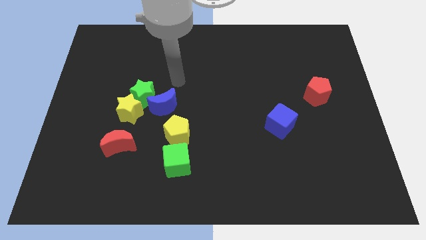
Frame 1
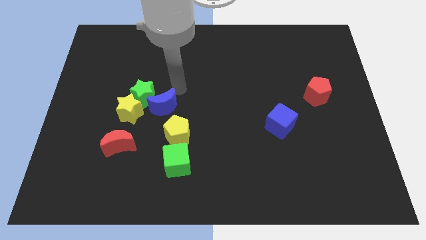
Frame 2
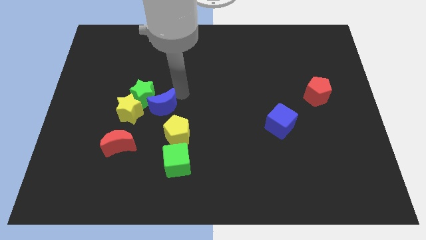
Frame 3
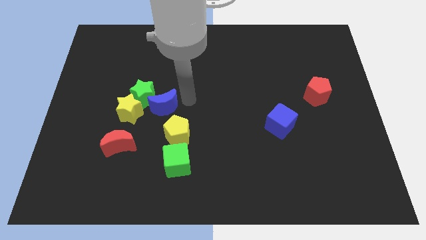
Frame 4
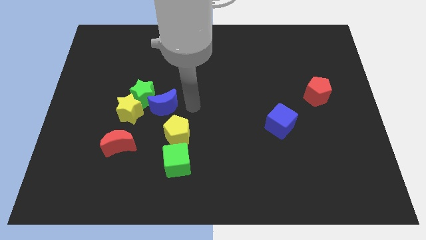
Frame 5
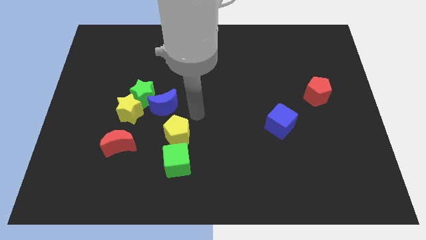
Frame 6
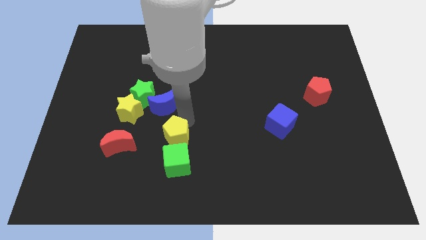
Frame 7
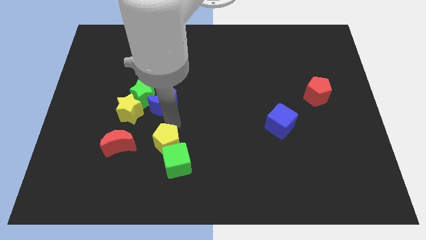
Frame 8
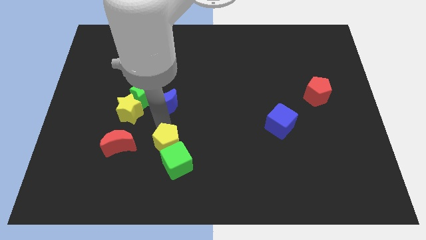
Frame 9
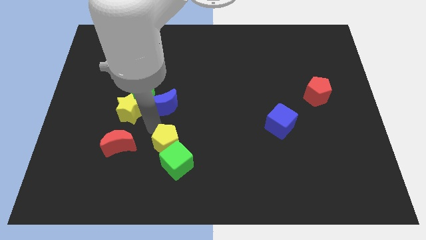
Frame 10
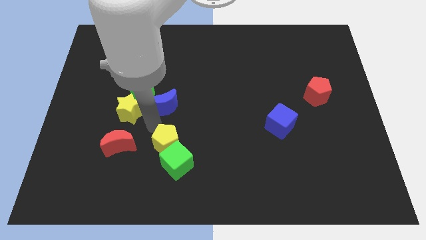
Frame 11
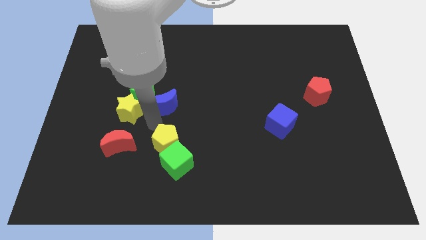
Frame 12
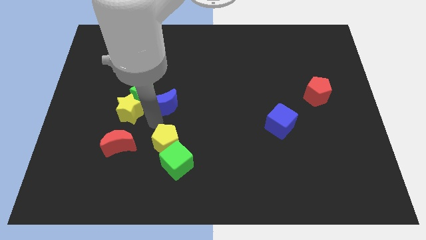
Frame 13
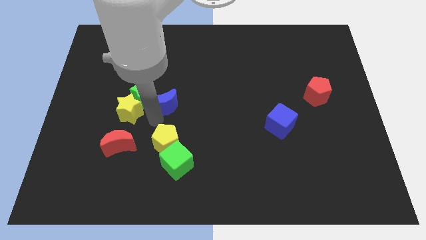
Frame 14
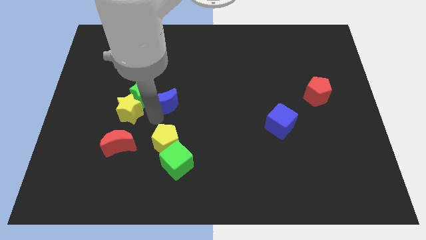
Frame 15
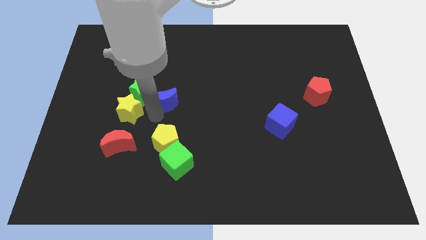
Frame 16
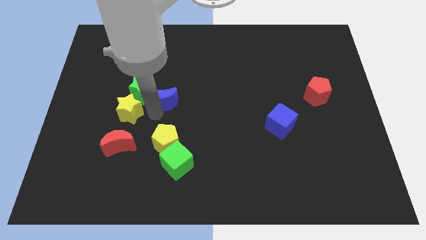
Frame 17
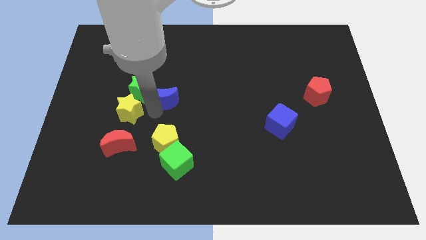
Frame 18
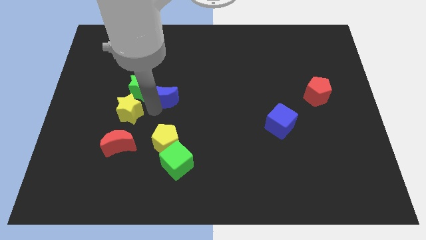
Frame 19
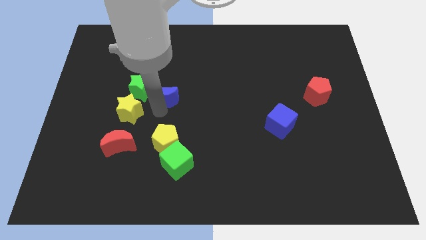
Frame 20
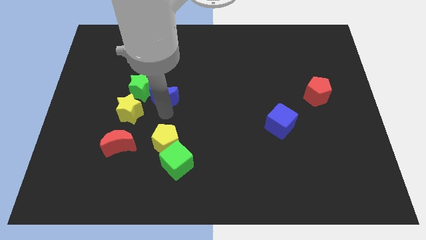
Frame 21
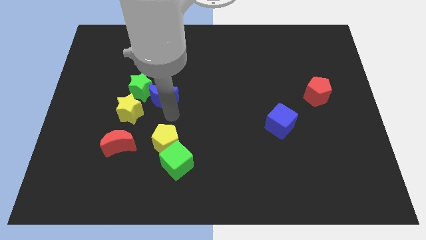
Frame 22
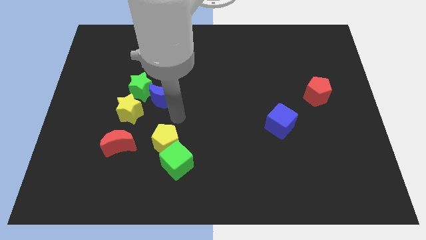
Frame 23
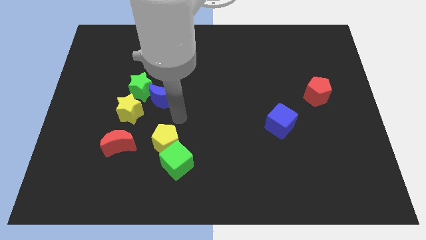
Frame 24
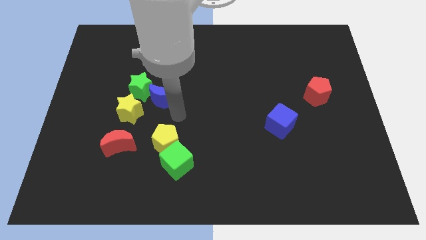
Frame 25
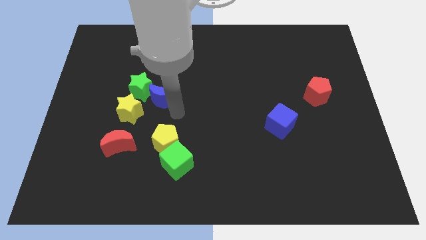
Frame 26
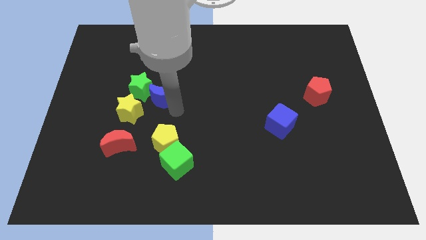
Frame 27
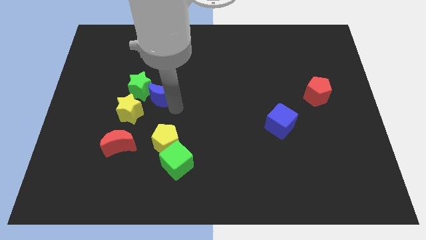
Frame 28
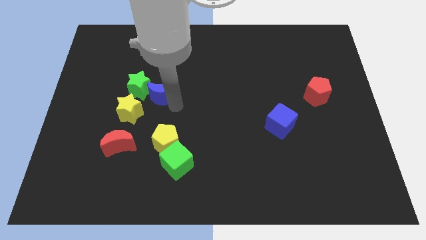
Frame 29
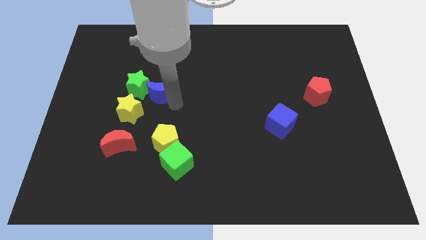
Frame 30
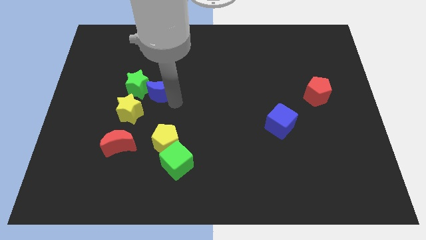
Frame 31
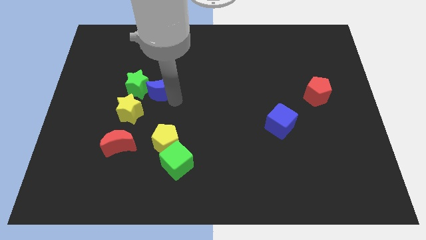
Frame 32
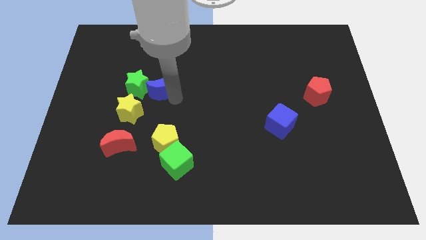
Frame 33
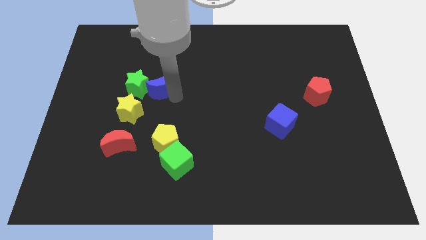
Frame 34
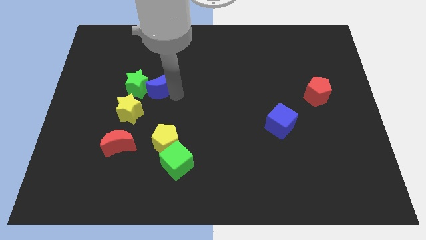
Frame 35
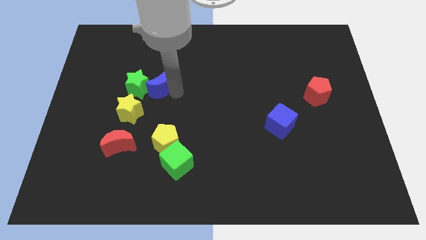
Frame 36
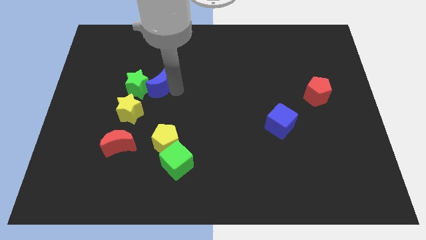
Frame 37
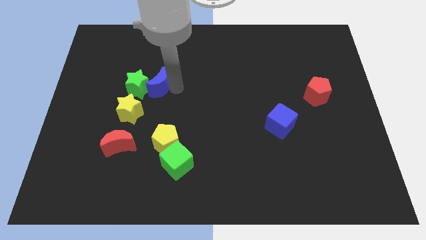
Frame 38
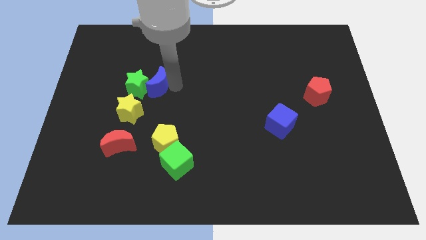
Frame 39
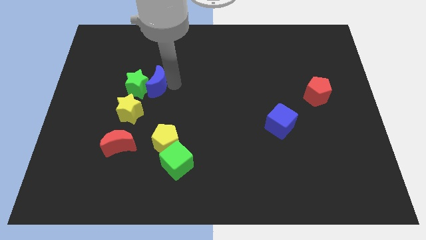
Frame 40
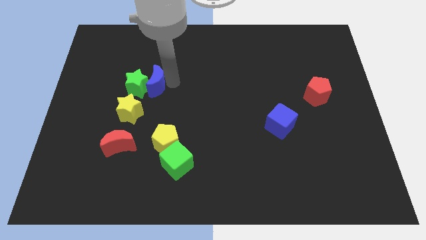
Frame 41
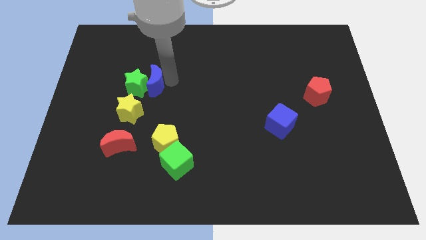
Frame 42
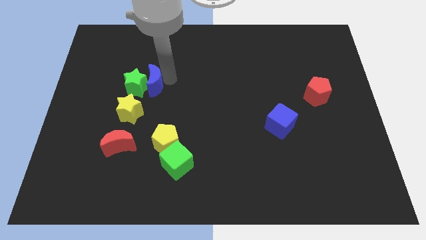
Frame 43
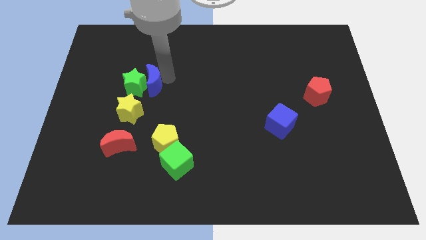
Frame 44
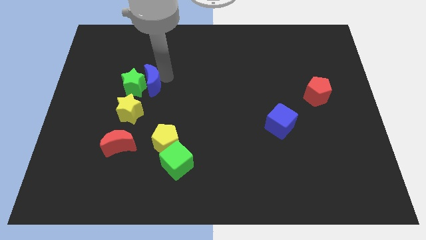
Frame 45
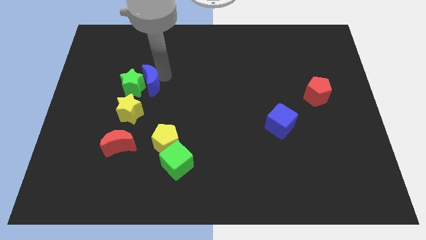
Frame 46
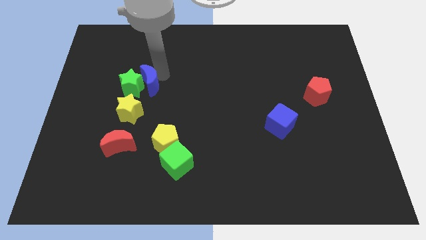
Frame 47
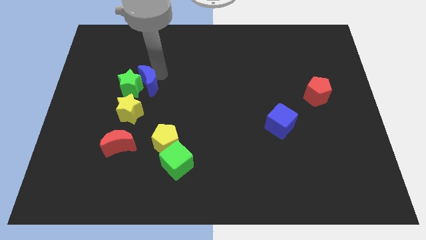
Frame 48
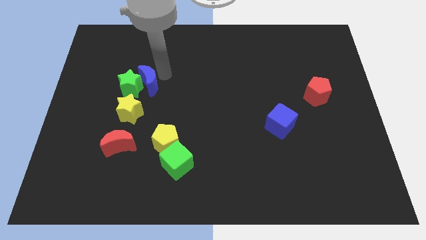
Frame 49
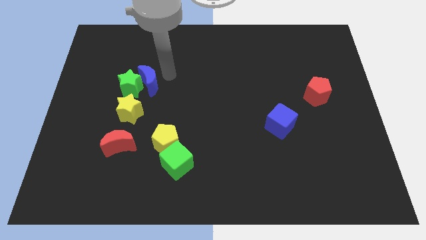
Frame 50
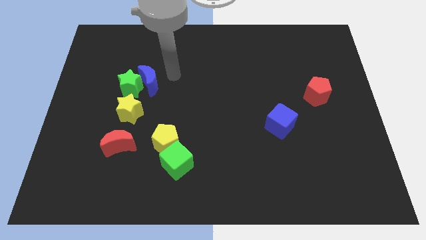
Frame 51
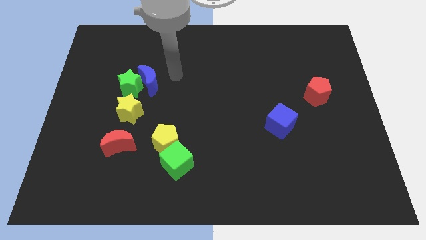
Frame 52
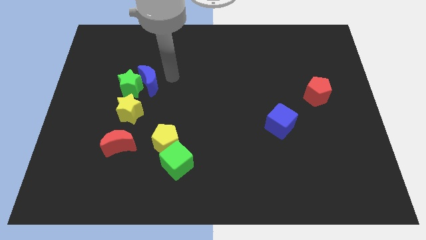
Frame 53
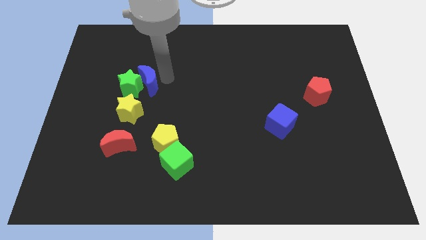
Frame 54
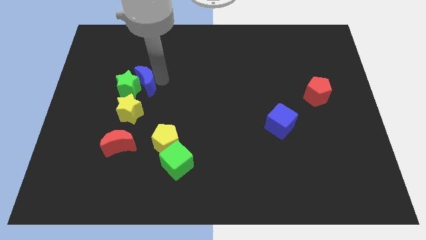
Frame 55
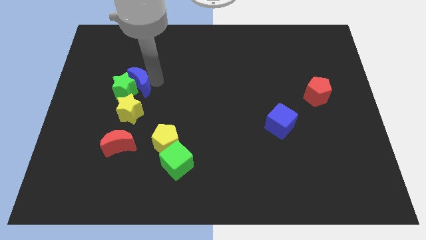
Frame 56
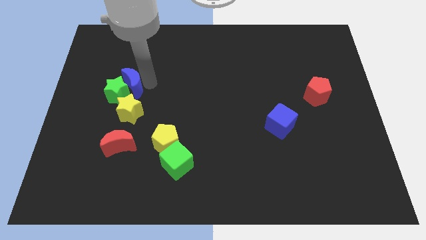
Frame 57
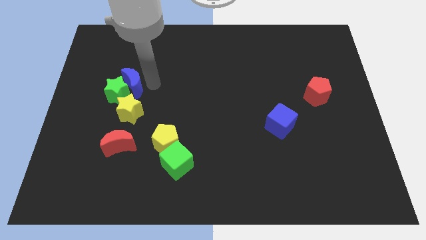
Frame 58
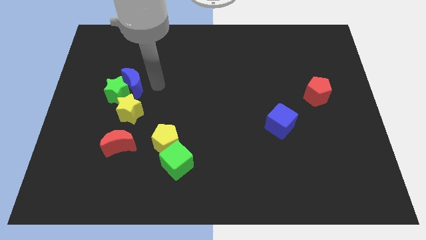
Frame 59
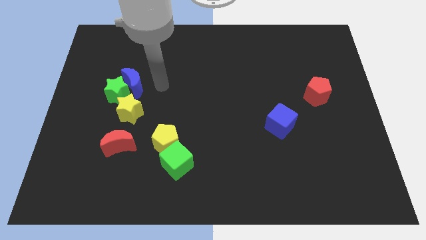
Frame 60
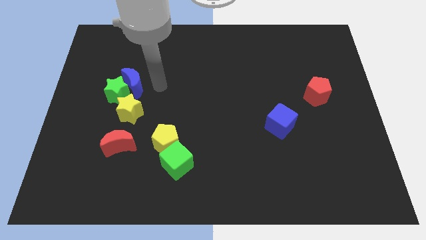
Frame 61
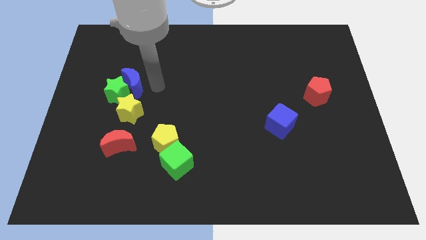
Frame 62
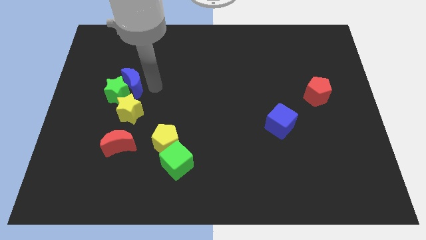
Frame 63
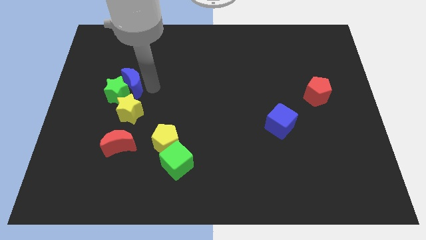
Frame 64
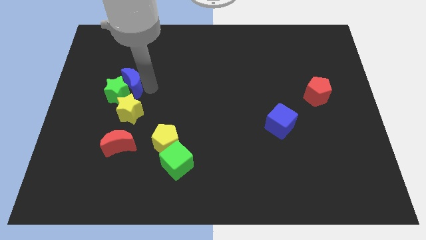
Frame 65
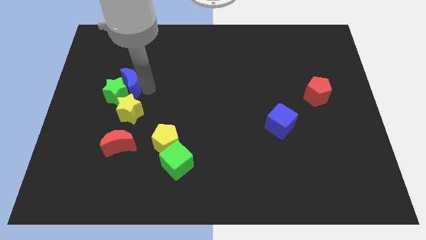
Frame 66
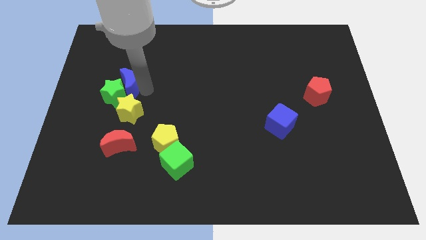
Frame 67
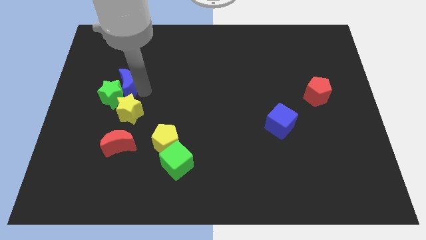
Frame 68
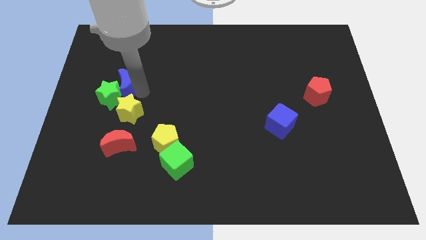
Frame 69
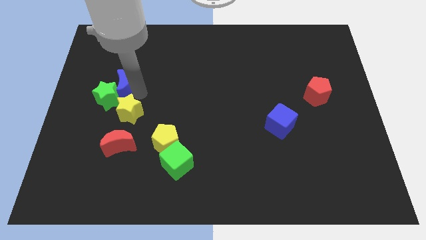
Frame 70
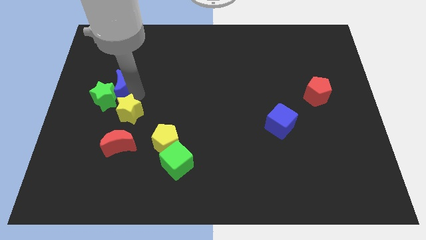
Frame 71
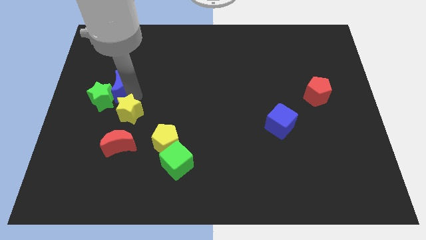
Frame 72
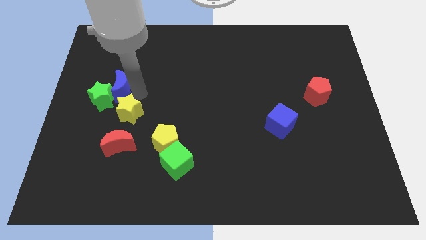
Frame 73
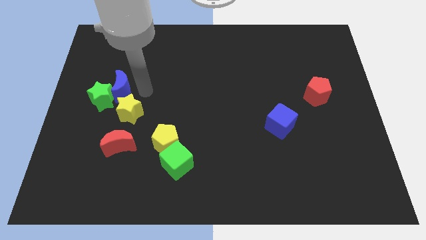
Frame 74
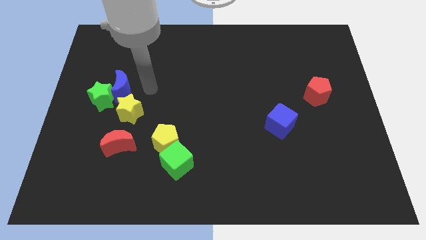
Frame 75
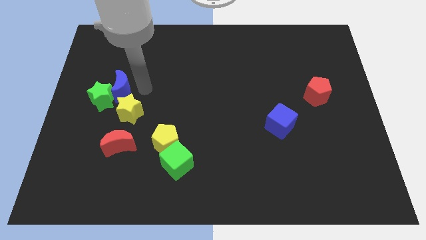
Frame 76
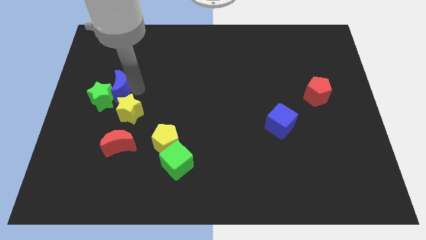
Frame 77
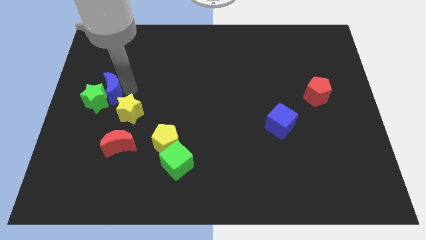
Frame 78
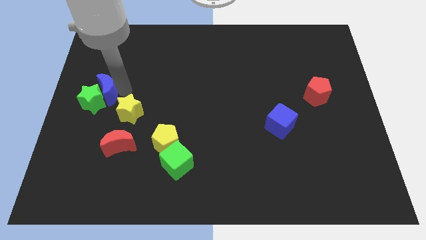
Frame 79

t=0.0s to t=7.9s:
put the blue moon to the left side
